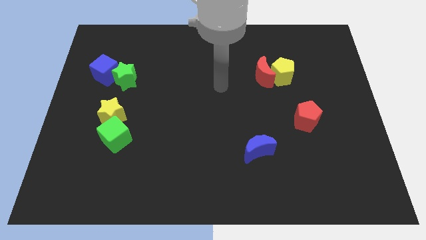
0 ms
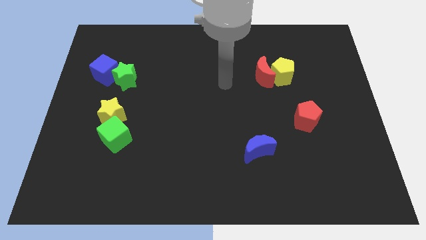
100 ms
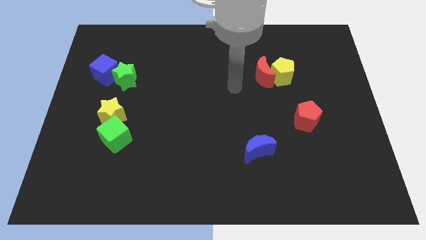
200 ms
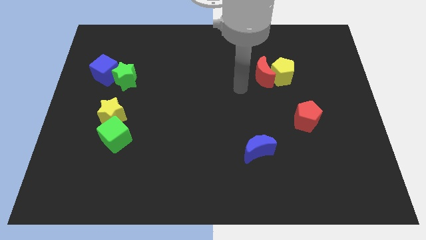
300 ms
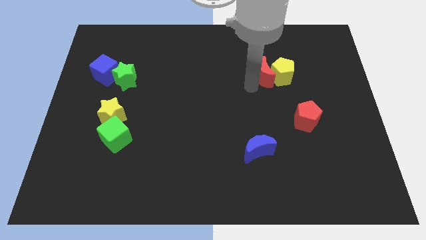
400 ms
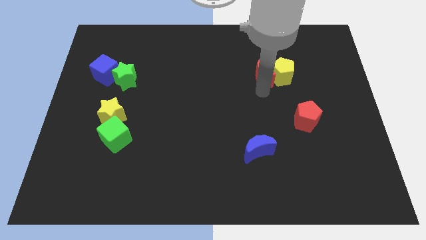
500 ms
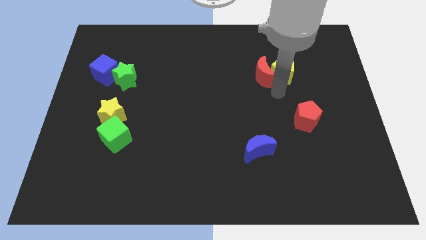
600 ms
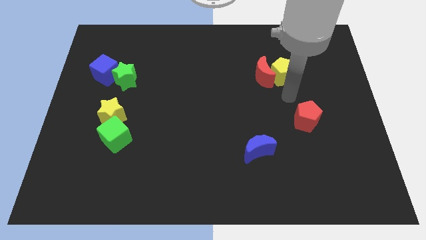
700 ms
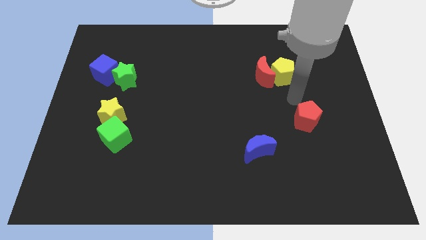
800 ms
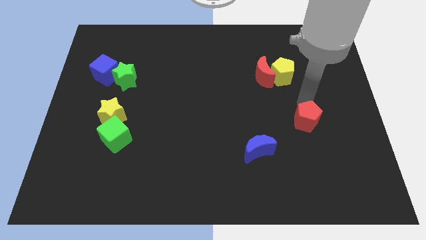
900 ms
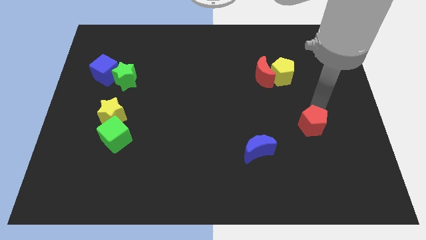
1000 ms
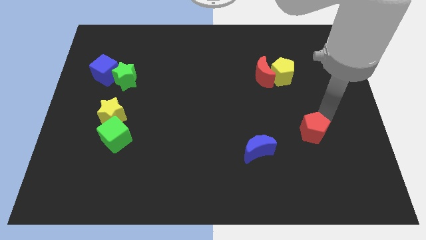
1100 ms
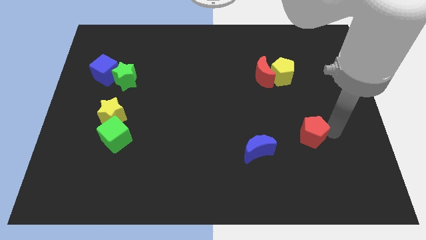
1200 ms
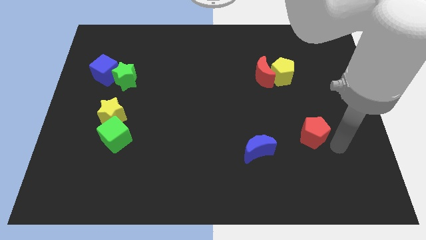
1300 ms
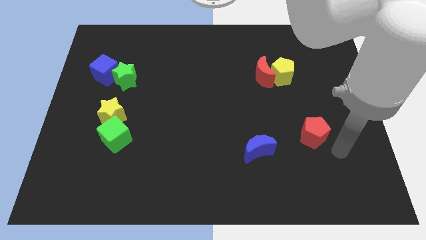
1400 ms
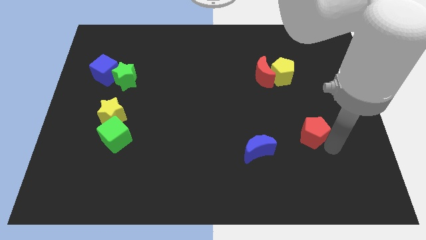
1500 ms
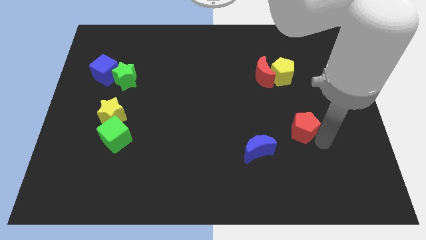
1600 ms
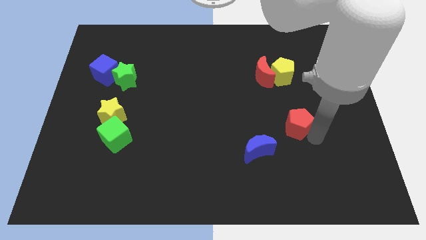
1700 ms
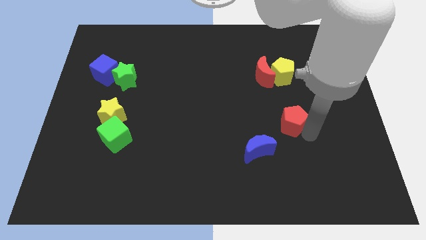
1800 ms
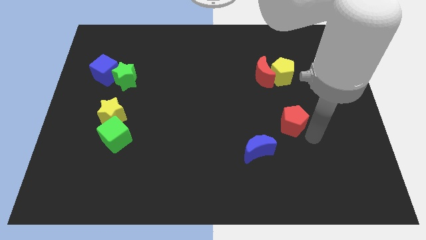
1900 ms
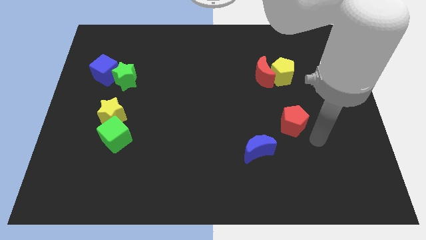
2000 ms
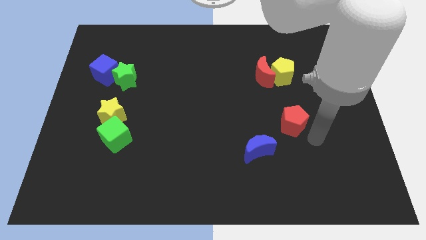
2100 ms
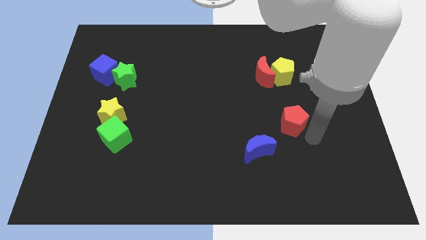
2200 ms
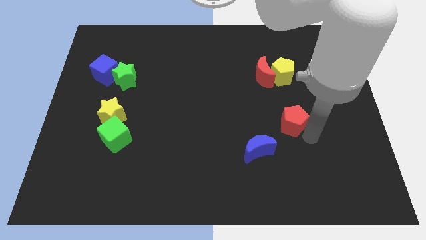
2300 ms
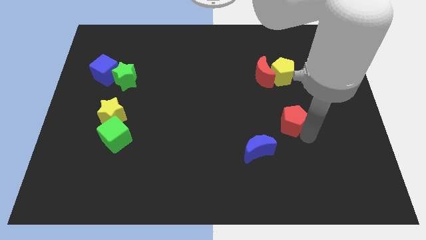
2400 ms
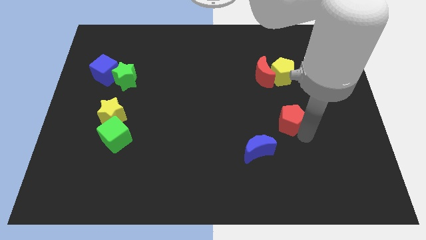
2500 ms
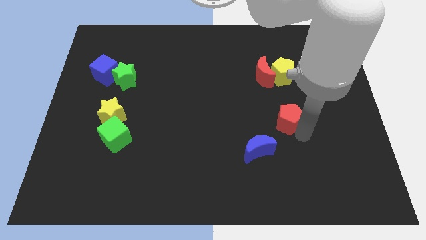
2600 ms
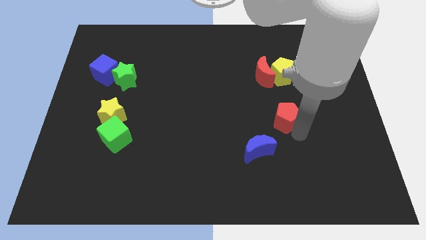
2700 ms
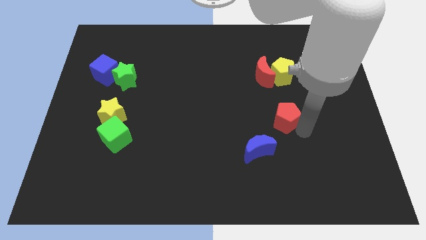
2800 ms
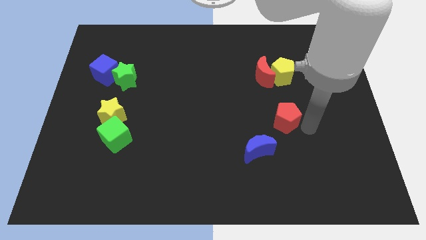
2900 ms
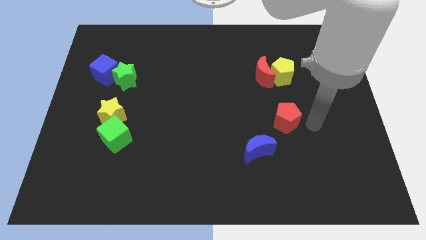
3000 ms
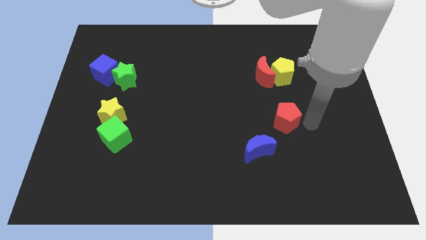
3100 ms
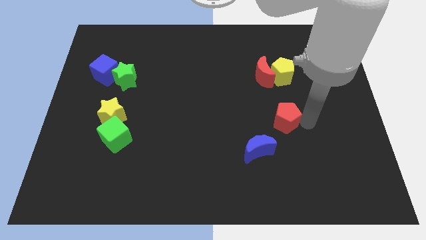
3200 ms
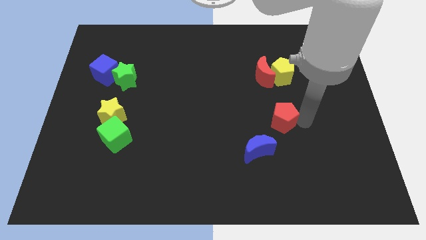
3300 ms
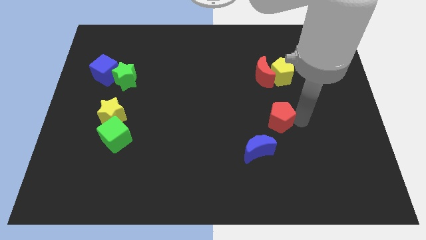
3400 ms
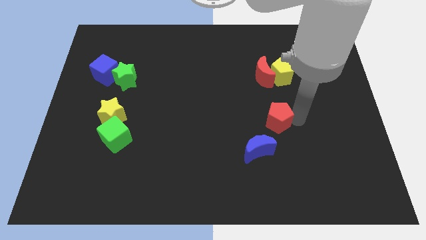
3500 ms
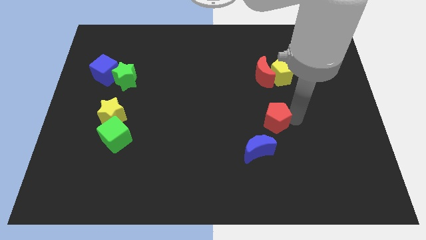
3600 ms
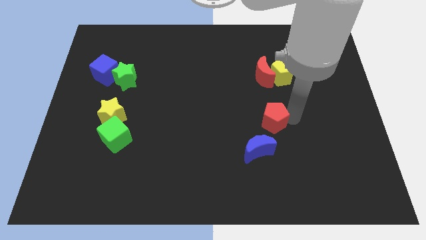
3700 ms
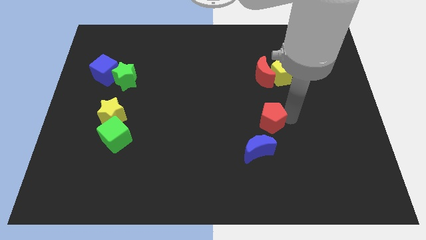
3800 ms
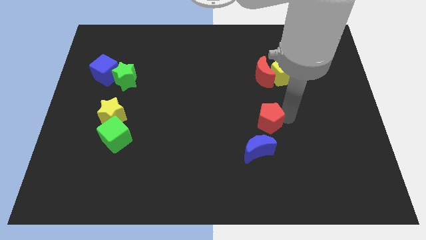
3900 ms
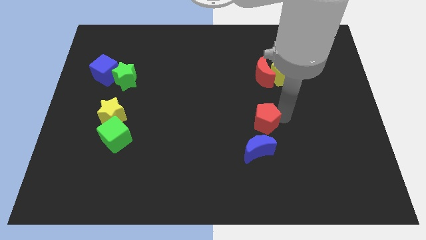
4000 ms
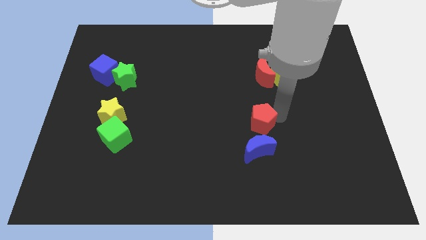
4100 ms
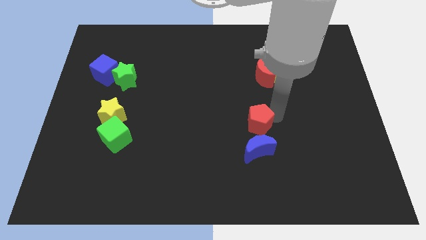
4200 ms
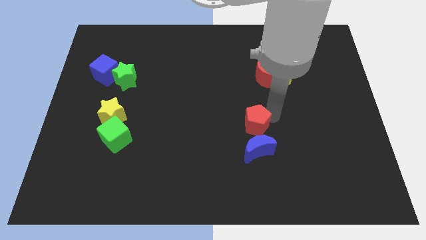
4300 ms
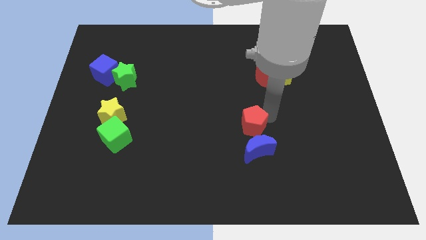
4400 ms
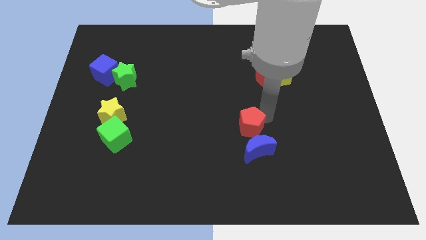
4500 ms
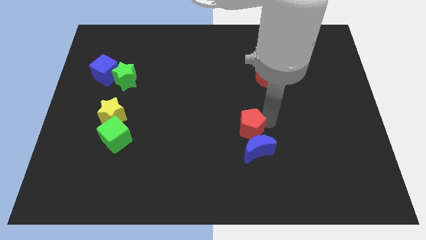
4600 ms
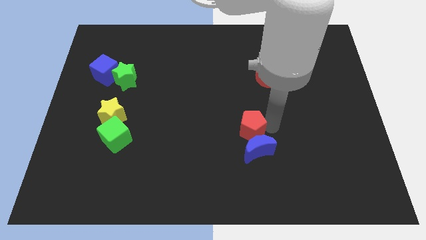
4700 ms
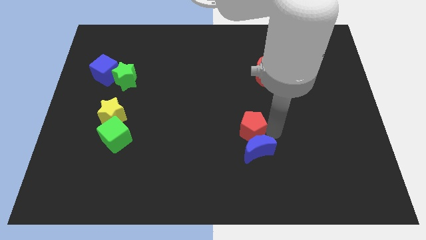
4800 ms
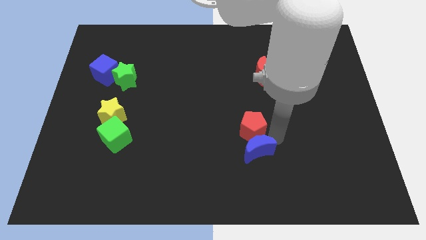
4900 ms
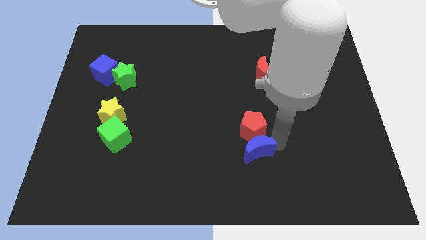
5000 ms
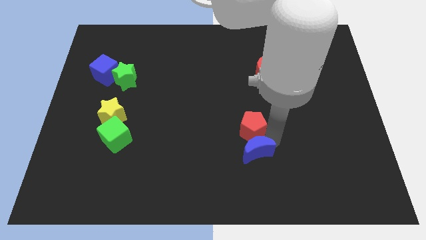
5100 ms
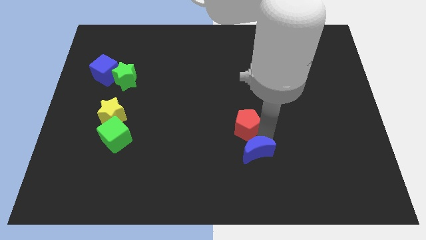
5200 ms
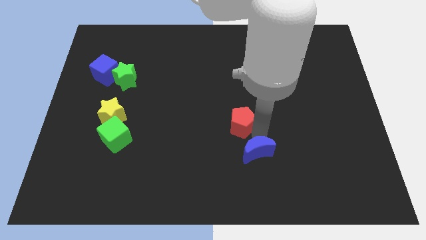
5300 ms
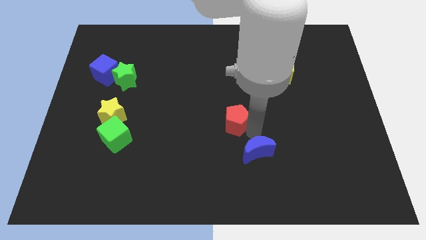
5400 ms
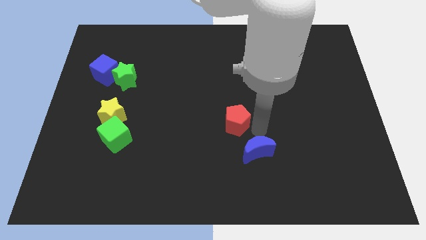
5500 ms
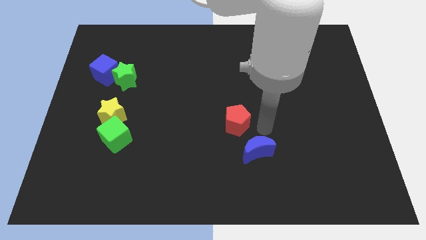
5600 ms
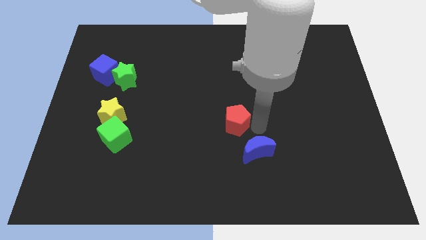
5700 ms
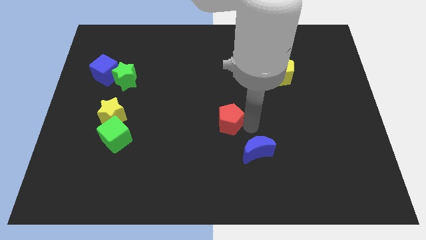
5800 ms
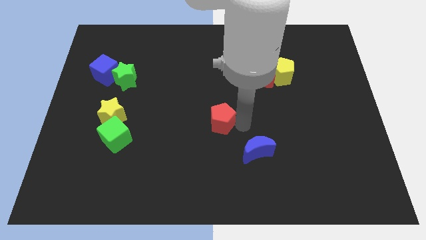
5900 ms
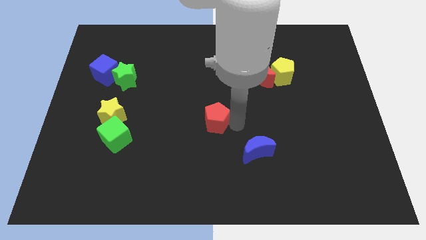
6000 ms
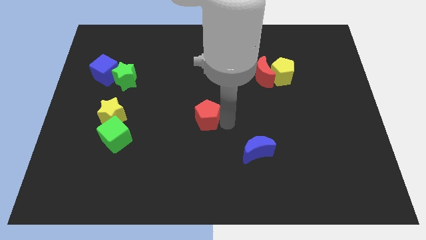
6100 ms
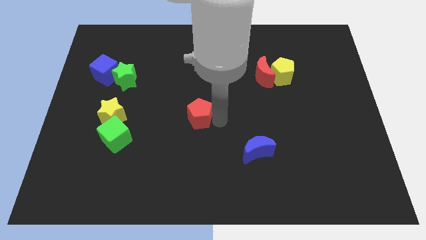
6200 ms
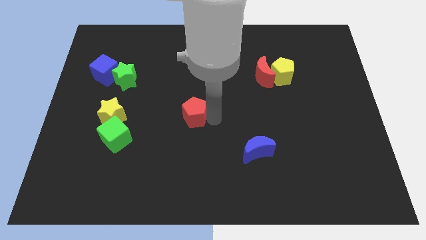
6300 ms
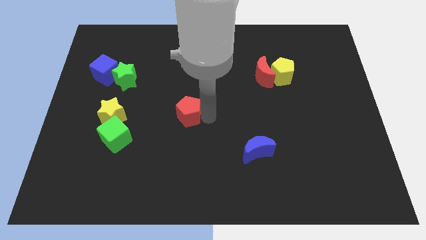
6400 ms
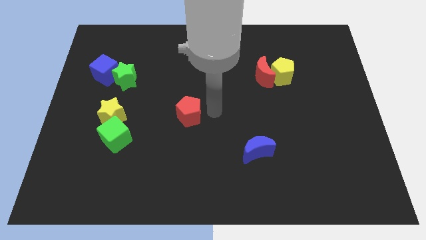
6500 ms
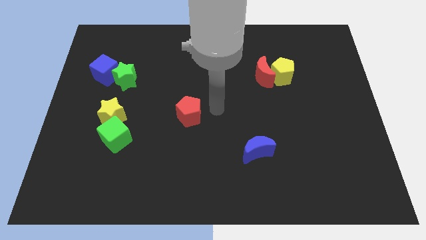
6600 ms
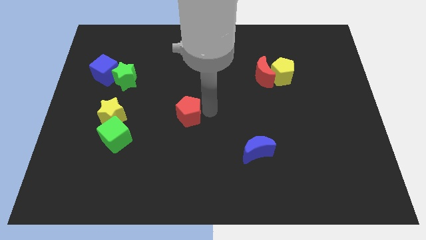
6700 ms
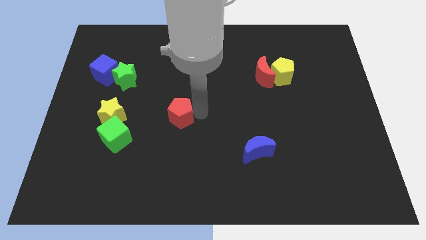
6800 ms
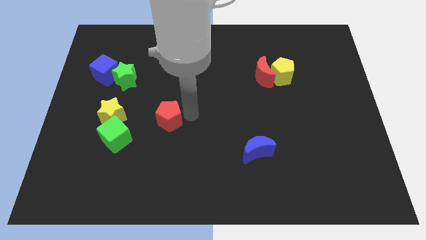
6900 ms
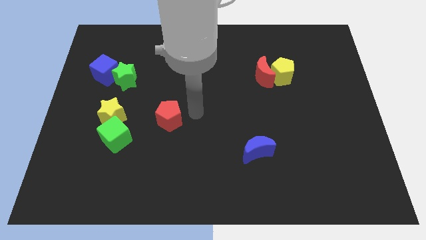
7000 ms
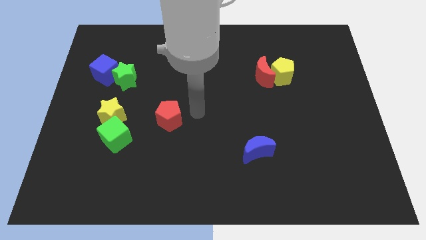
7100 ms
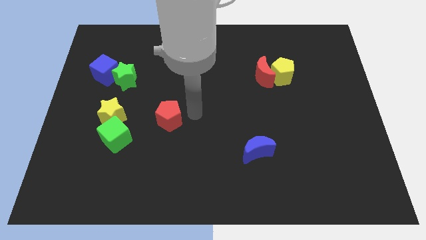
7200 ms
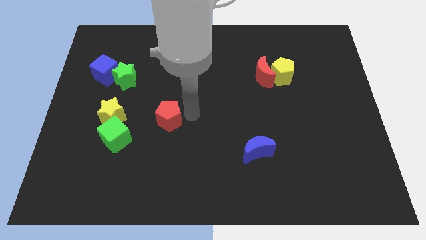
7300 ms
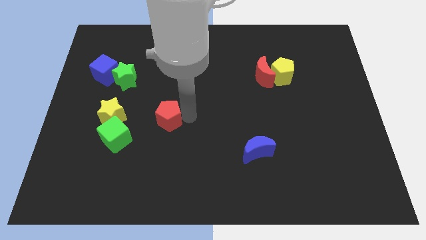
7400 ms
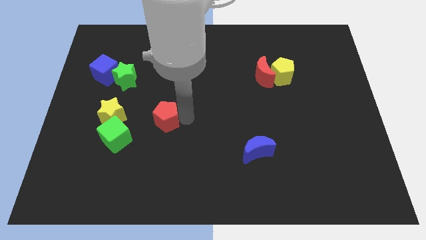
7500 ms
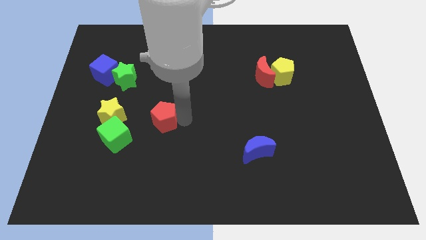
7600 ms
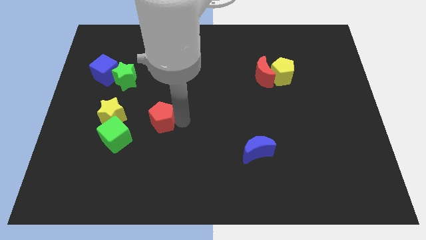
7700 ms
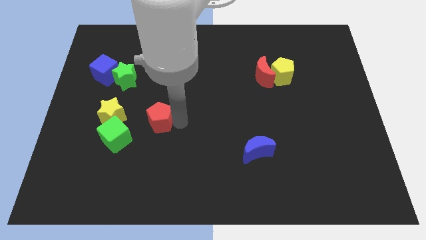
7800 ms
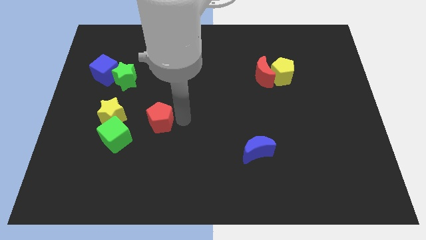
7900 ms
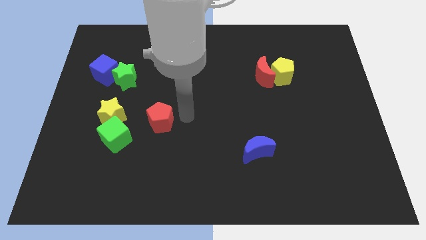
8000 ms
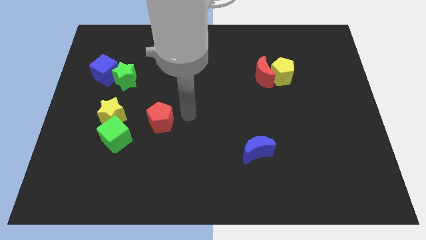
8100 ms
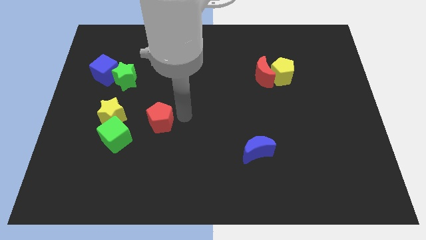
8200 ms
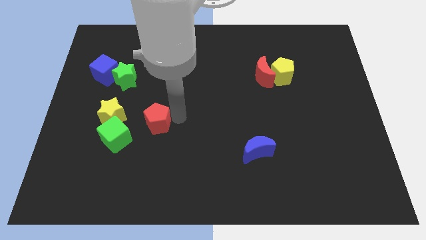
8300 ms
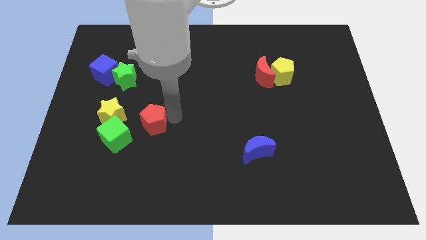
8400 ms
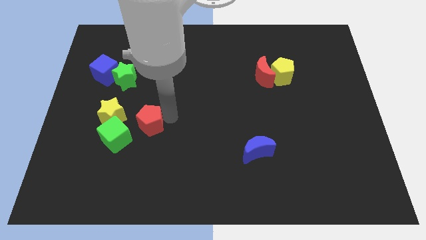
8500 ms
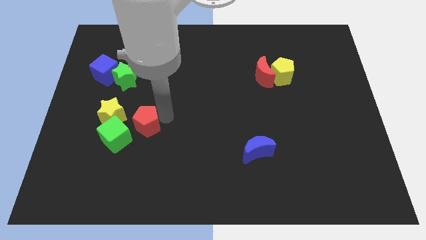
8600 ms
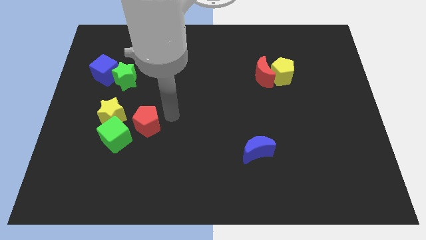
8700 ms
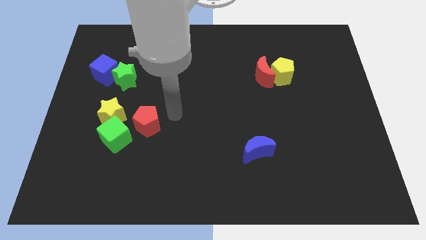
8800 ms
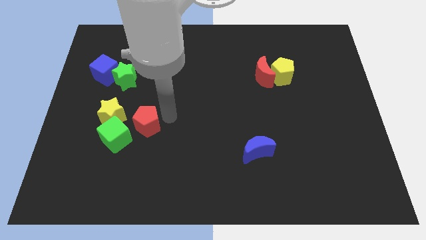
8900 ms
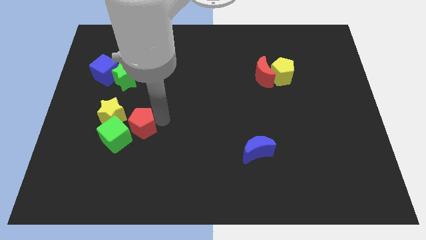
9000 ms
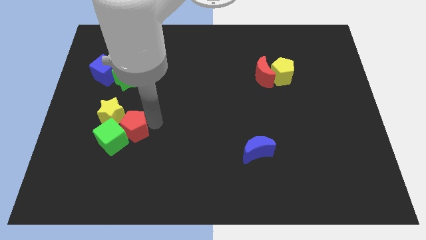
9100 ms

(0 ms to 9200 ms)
put the red pentagon next to the green cube
